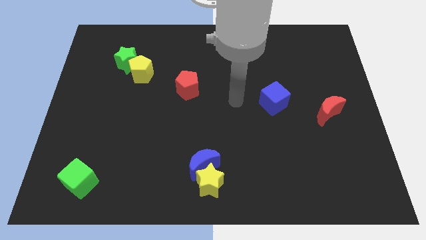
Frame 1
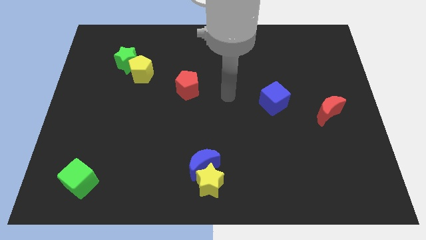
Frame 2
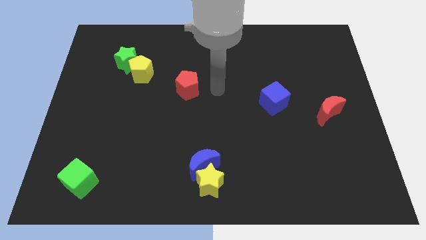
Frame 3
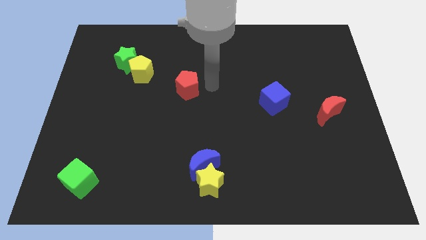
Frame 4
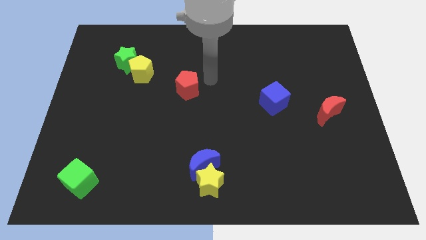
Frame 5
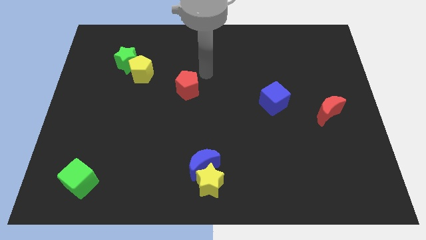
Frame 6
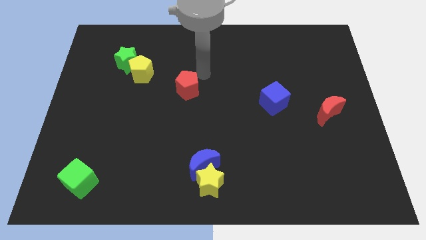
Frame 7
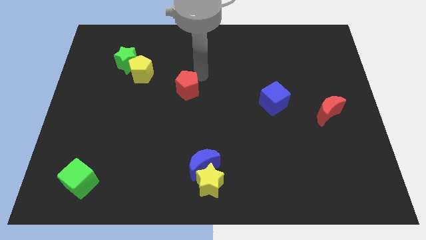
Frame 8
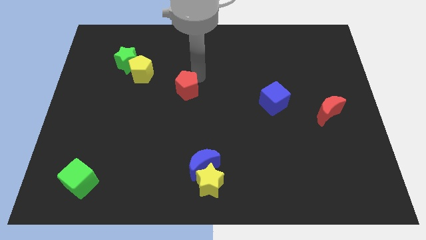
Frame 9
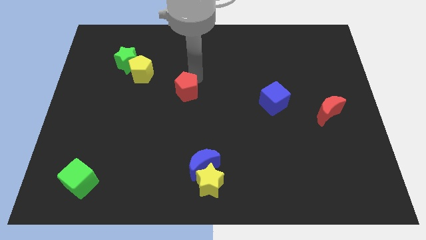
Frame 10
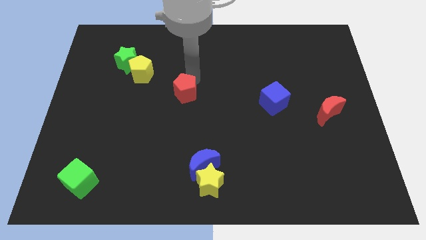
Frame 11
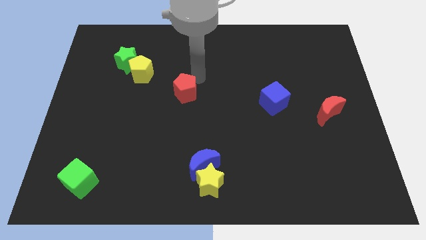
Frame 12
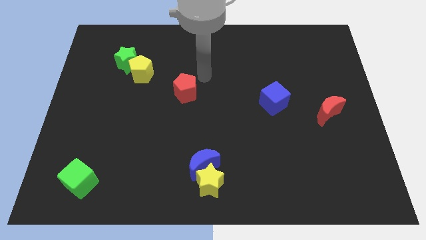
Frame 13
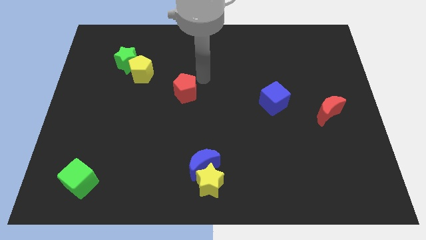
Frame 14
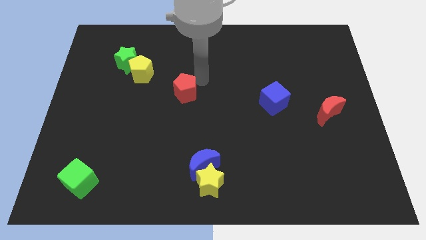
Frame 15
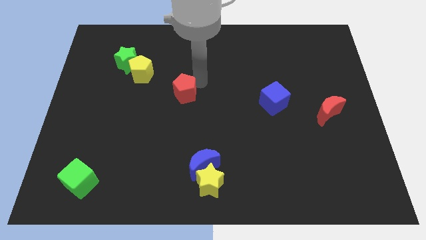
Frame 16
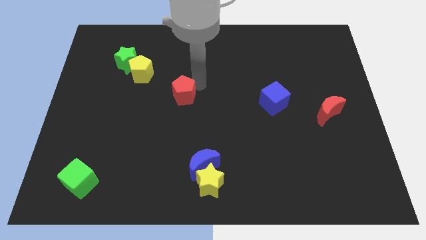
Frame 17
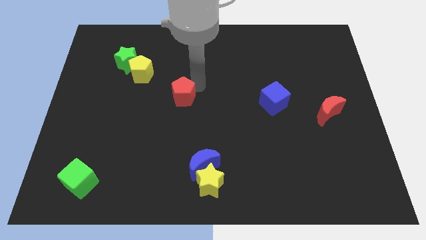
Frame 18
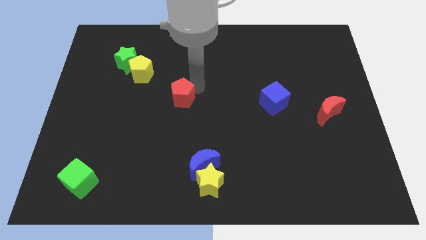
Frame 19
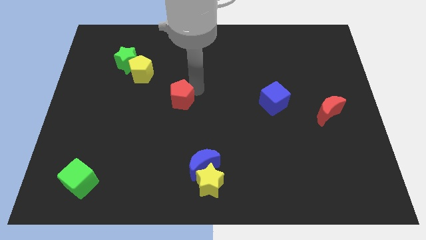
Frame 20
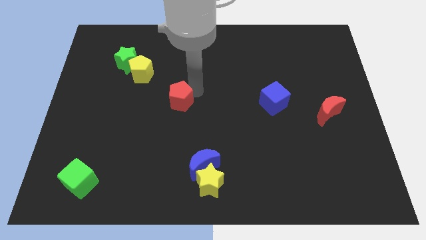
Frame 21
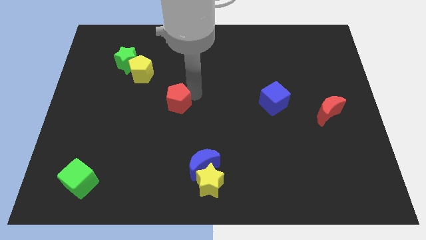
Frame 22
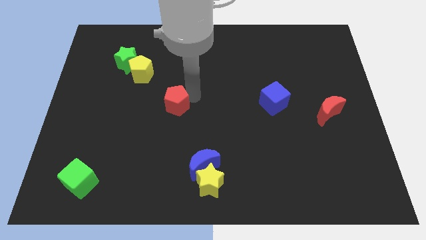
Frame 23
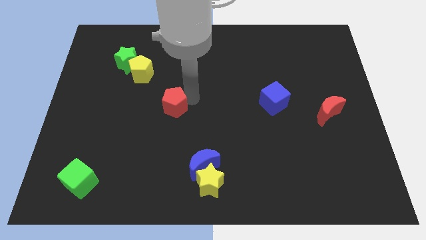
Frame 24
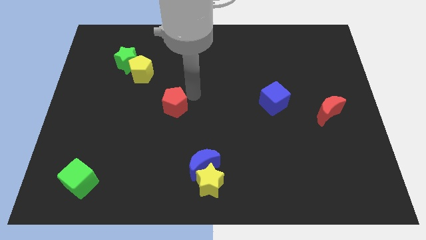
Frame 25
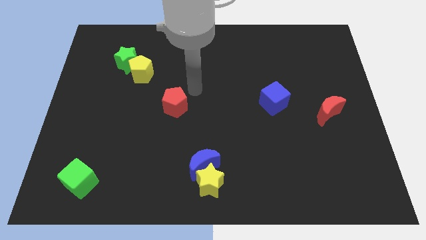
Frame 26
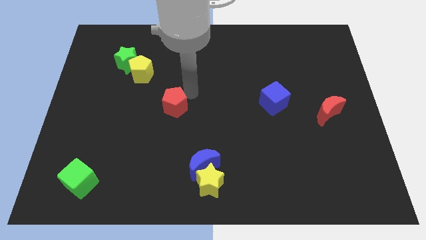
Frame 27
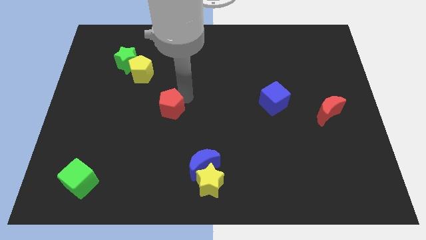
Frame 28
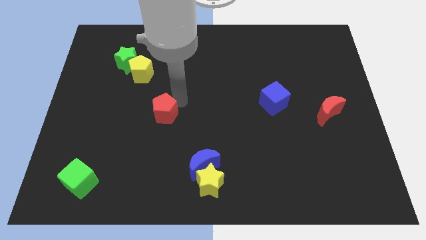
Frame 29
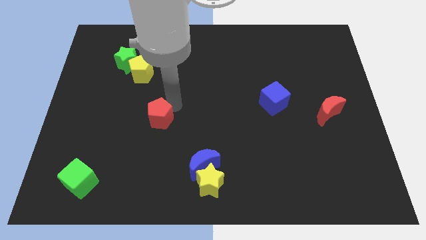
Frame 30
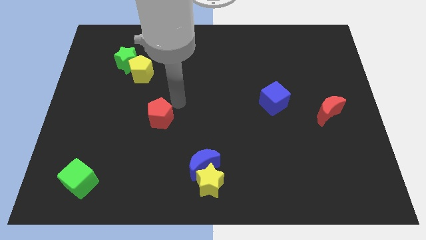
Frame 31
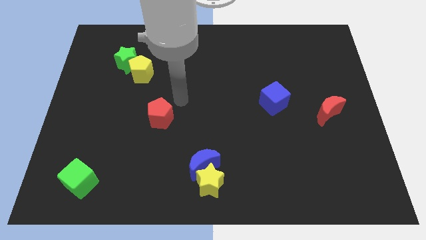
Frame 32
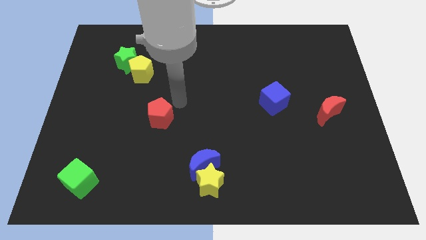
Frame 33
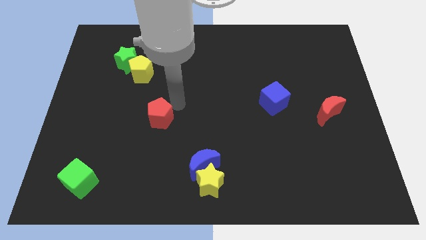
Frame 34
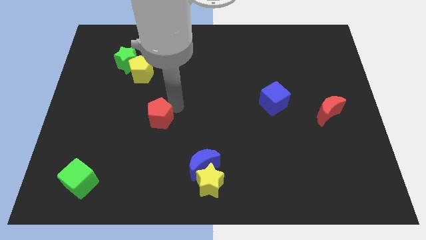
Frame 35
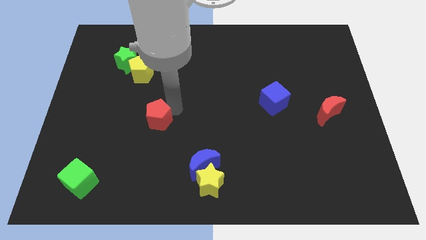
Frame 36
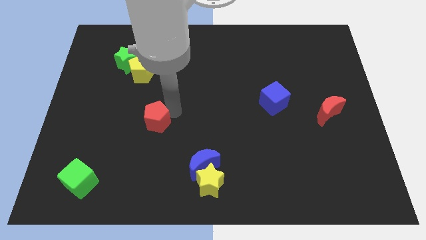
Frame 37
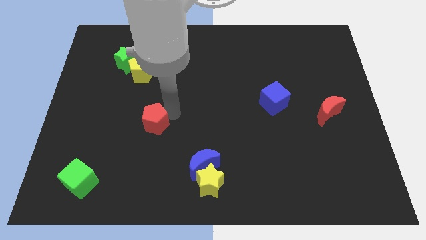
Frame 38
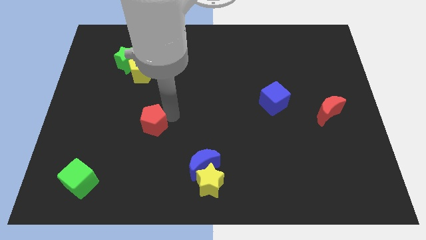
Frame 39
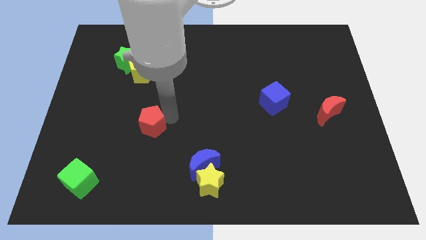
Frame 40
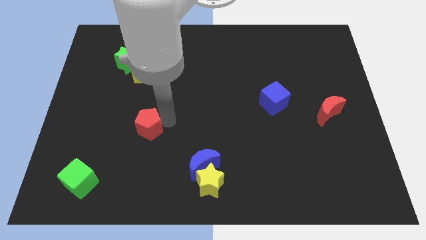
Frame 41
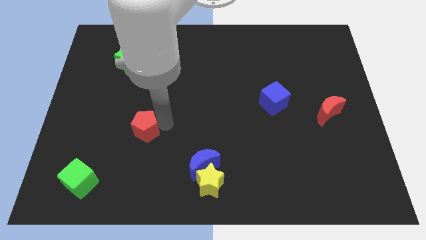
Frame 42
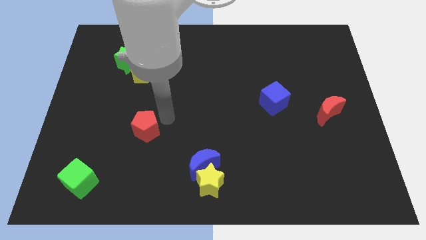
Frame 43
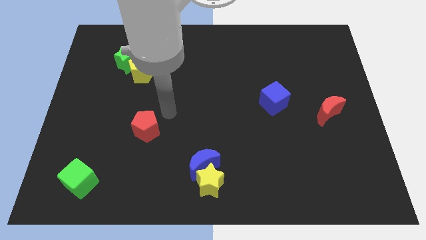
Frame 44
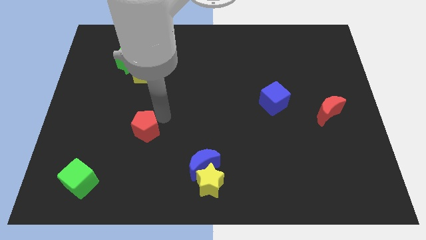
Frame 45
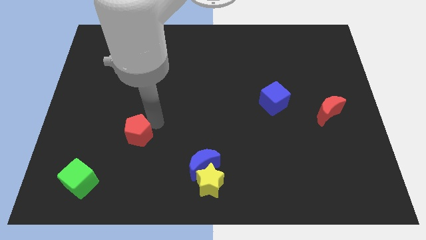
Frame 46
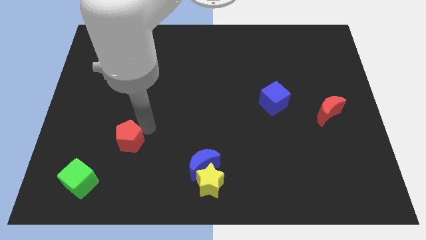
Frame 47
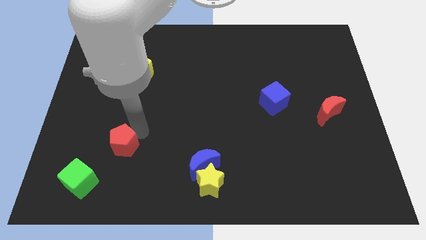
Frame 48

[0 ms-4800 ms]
put the red pentagon to the top right of the green cube

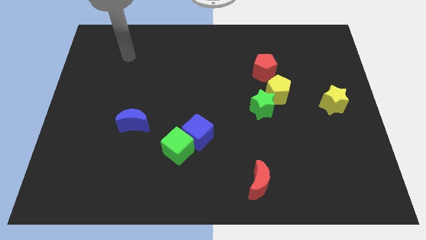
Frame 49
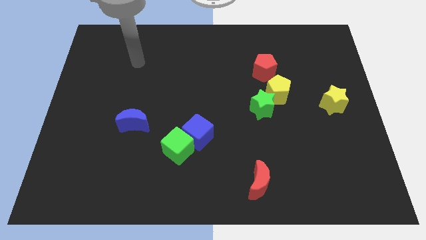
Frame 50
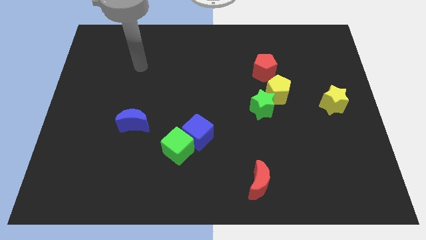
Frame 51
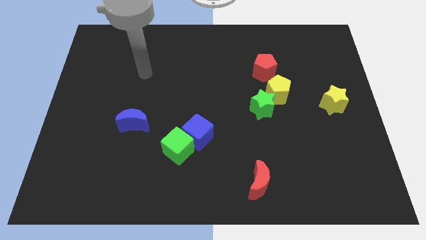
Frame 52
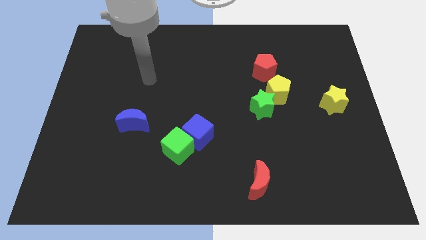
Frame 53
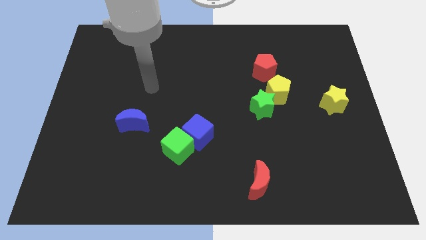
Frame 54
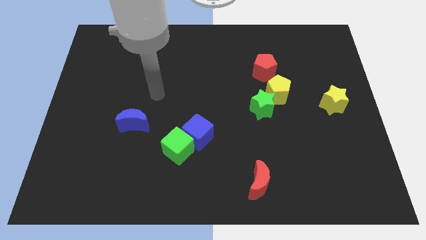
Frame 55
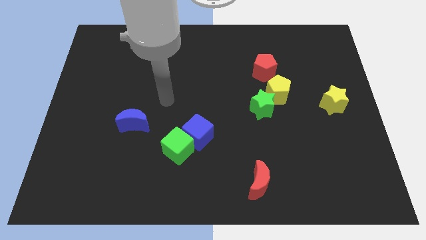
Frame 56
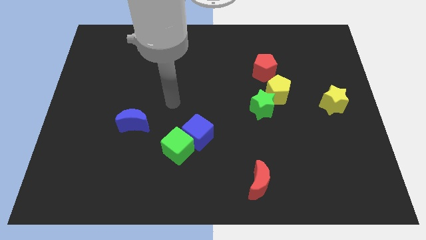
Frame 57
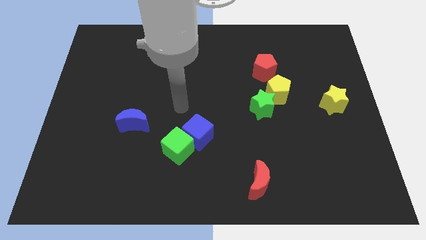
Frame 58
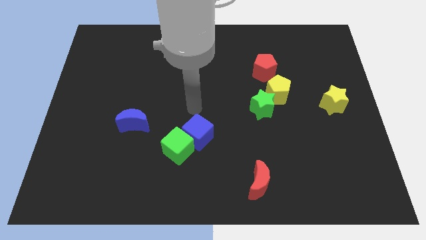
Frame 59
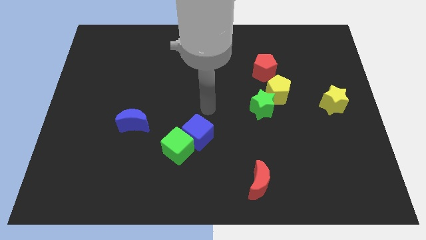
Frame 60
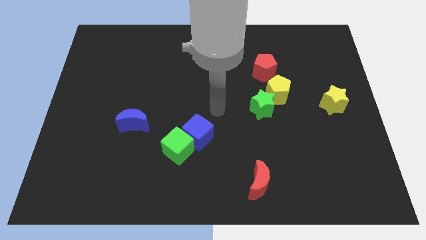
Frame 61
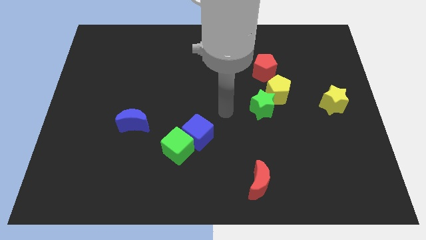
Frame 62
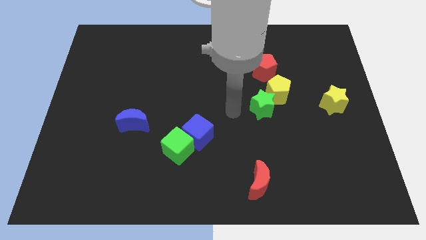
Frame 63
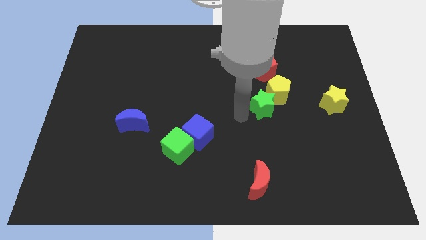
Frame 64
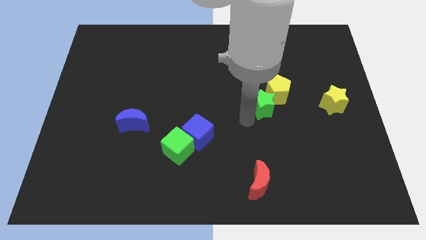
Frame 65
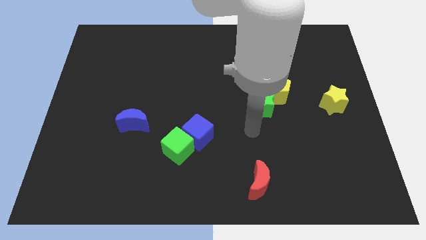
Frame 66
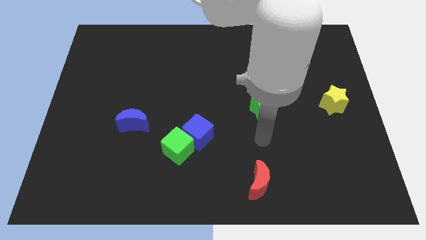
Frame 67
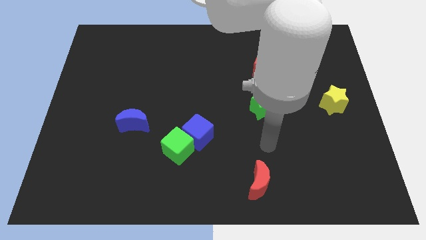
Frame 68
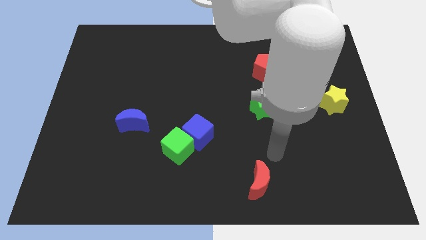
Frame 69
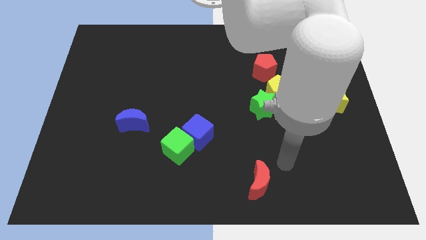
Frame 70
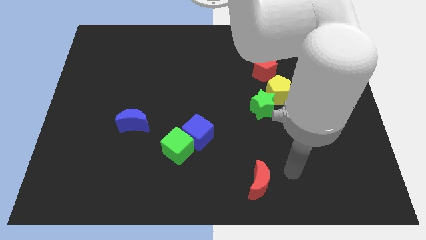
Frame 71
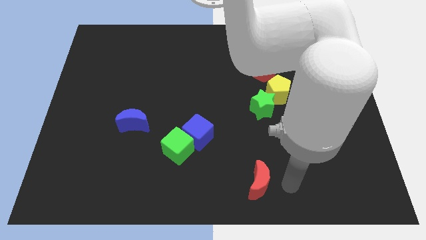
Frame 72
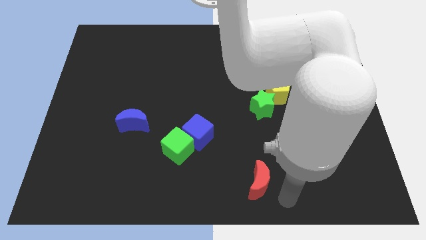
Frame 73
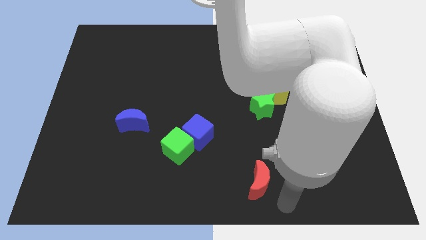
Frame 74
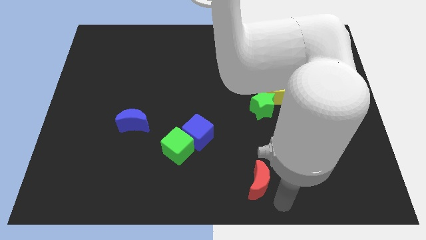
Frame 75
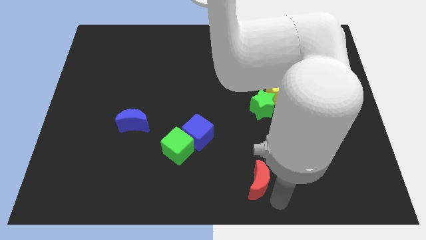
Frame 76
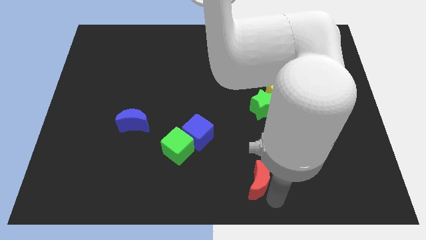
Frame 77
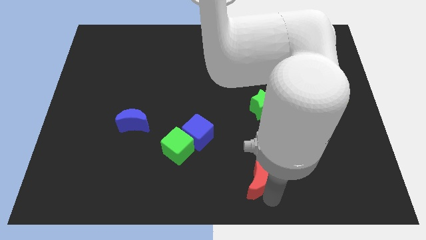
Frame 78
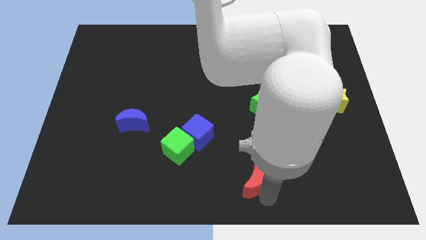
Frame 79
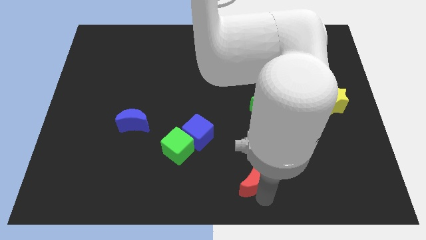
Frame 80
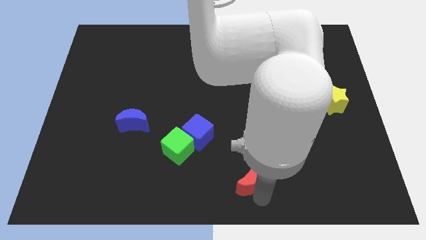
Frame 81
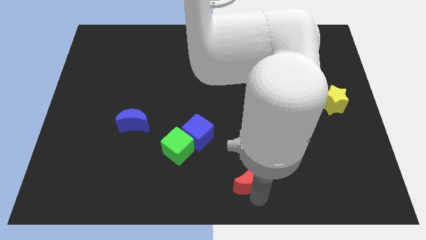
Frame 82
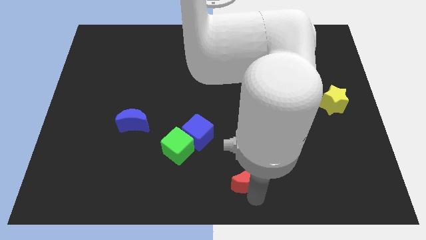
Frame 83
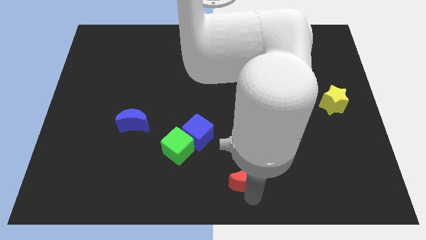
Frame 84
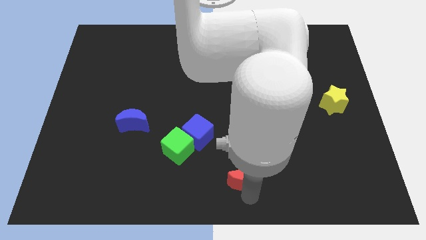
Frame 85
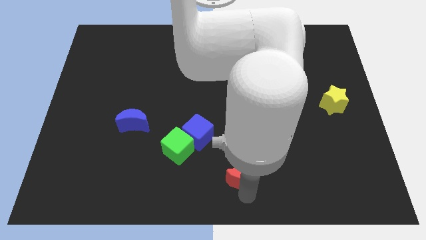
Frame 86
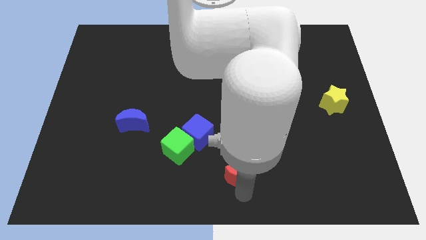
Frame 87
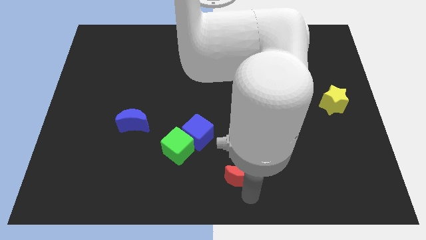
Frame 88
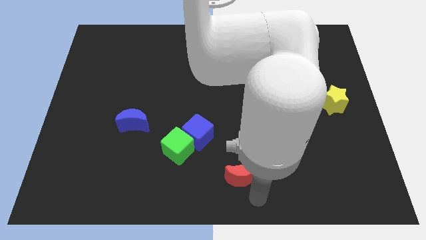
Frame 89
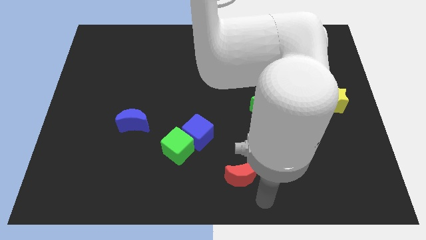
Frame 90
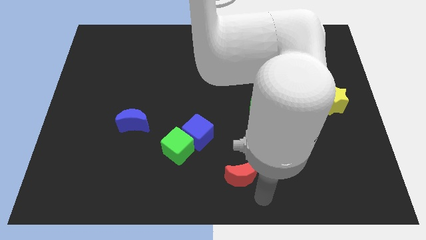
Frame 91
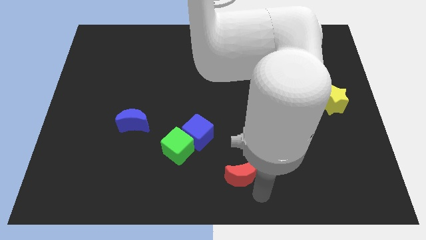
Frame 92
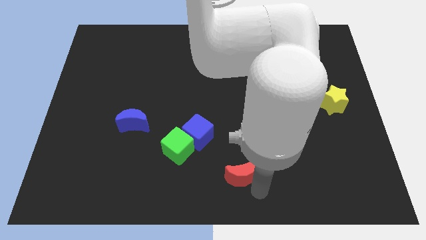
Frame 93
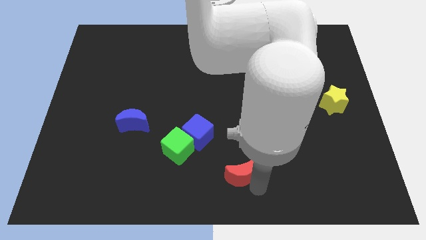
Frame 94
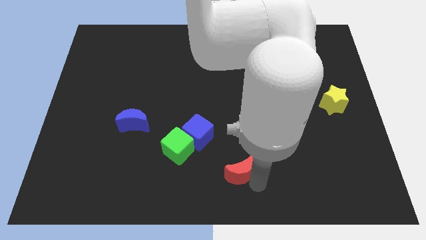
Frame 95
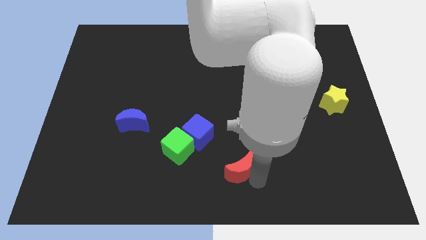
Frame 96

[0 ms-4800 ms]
move the red moon diagonally down and to the right of the blue cube
